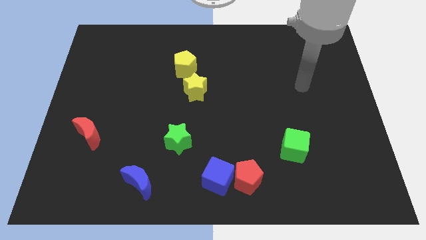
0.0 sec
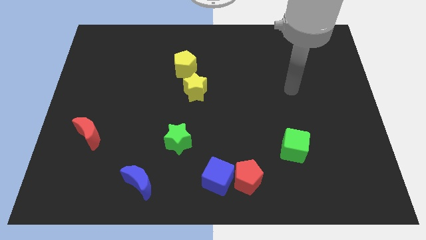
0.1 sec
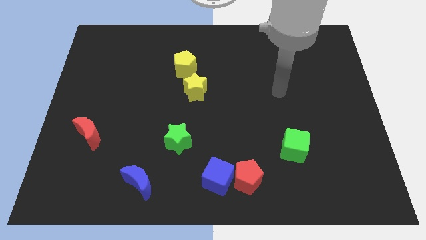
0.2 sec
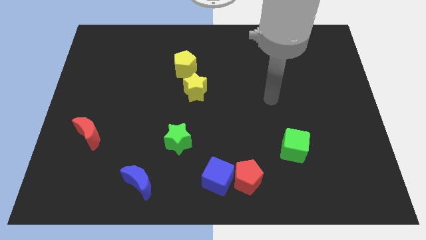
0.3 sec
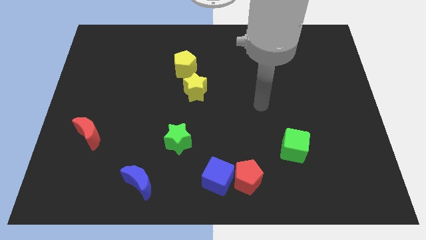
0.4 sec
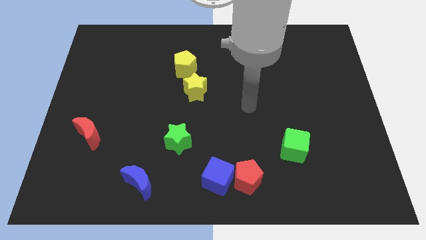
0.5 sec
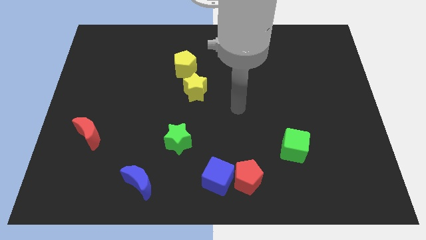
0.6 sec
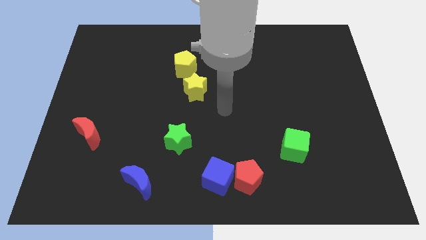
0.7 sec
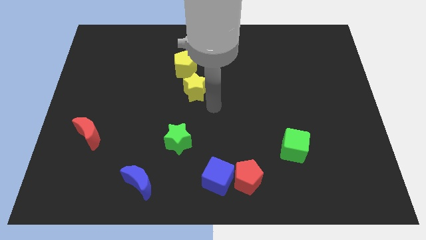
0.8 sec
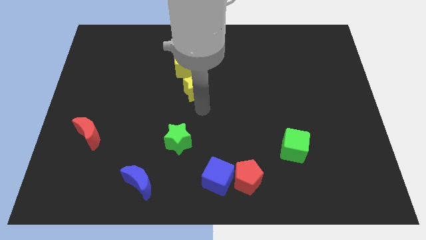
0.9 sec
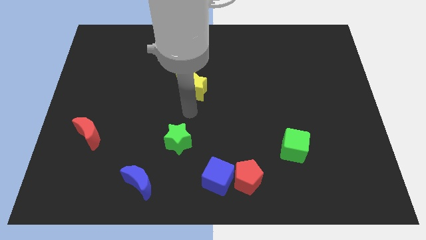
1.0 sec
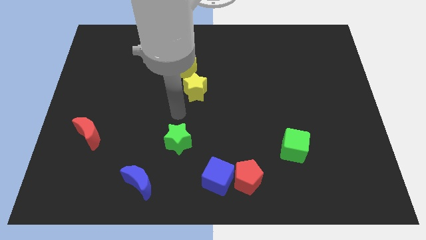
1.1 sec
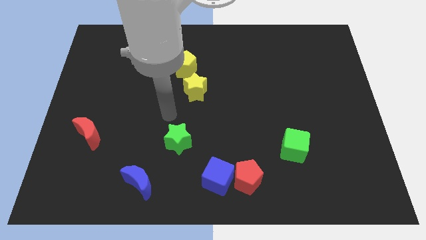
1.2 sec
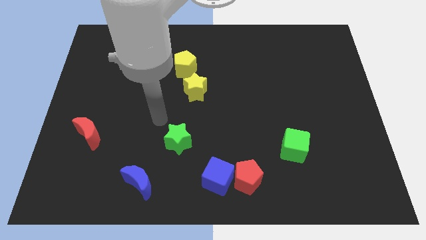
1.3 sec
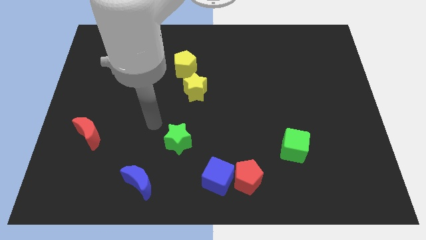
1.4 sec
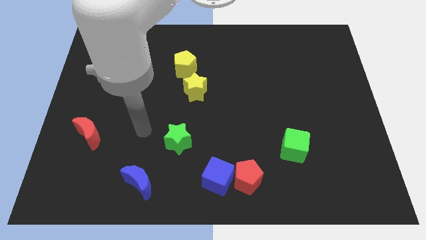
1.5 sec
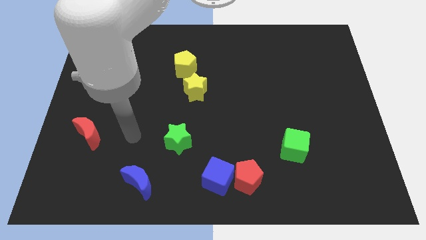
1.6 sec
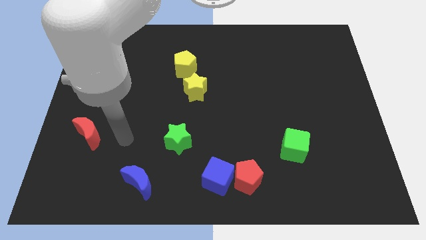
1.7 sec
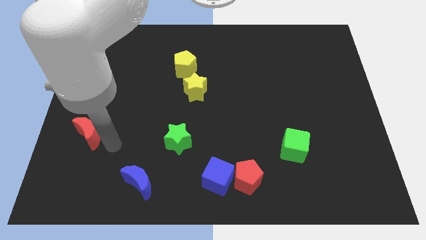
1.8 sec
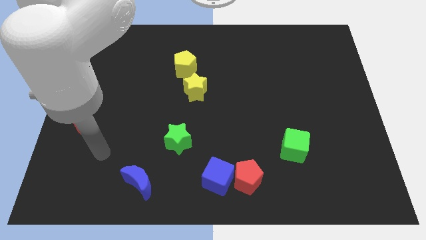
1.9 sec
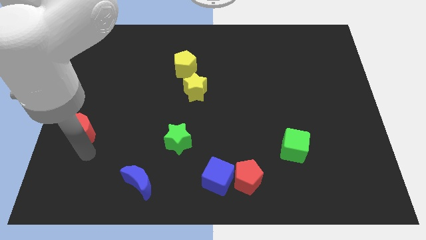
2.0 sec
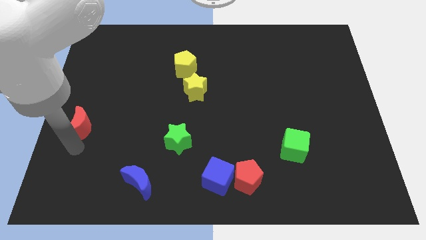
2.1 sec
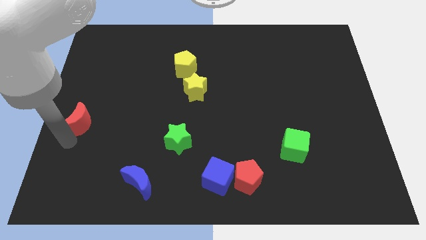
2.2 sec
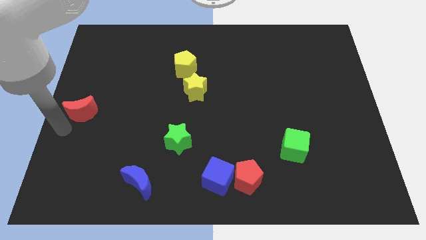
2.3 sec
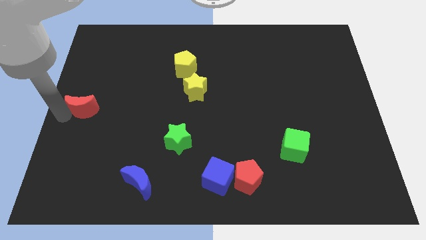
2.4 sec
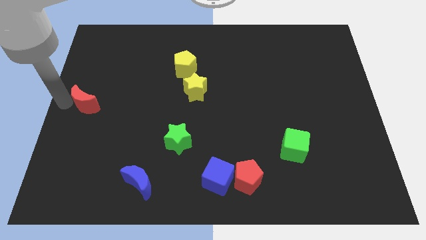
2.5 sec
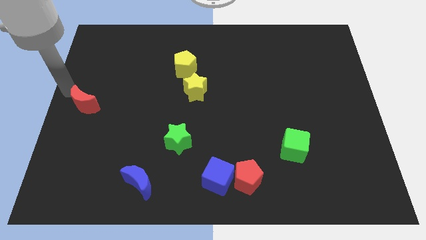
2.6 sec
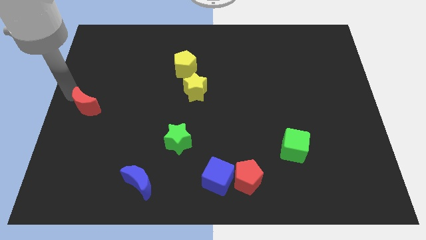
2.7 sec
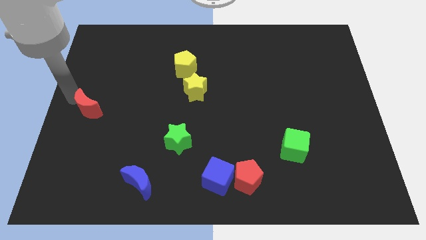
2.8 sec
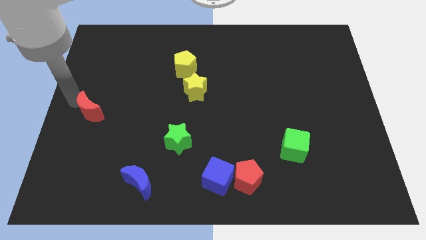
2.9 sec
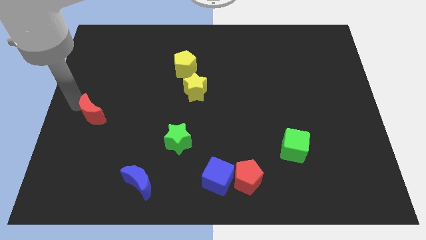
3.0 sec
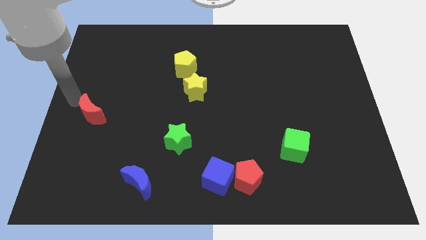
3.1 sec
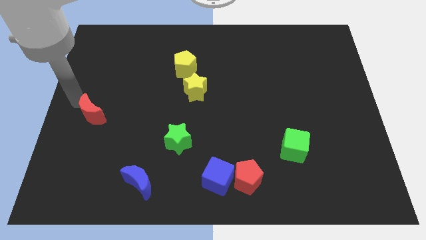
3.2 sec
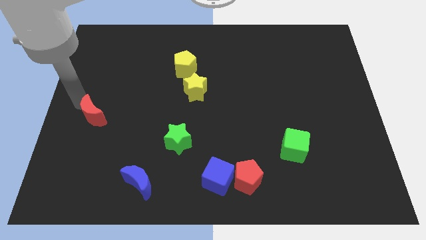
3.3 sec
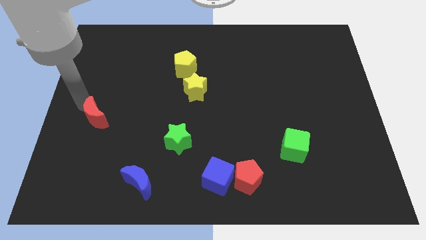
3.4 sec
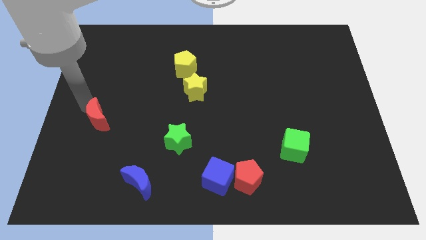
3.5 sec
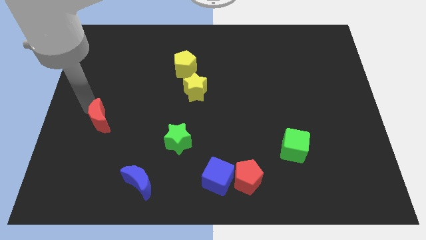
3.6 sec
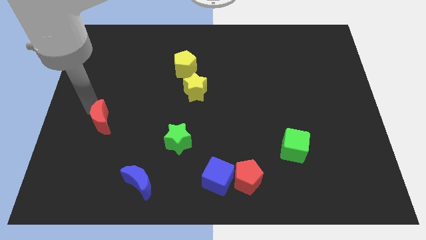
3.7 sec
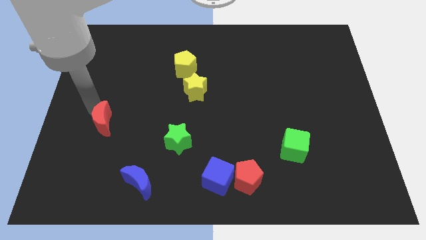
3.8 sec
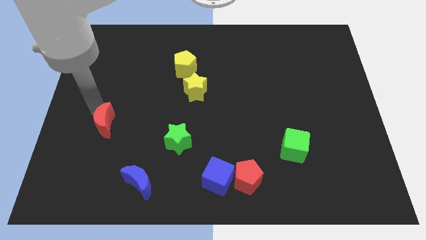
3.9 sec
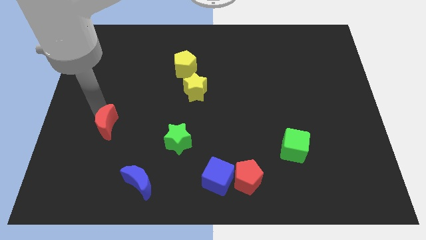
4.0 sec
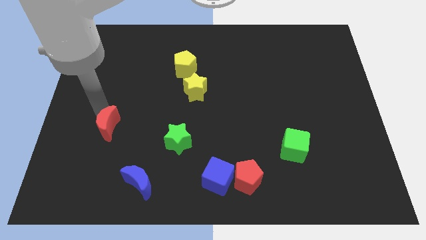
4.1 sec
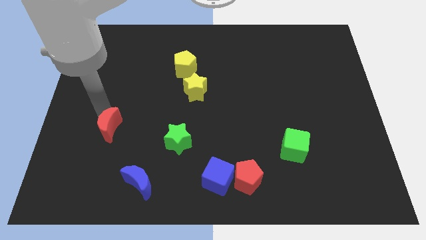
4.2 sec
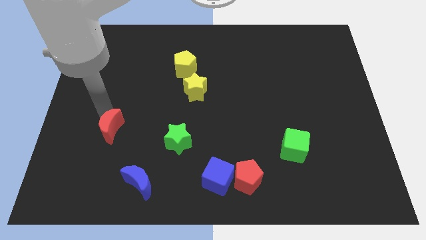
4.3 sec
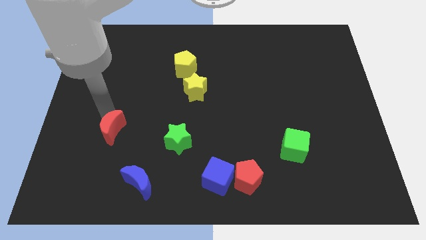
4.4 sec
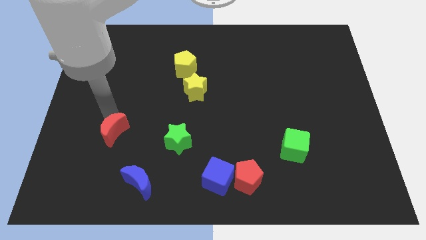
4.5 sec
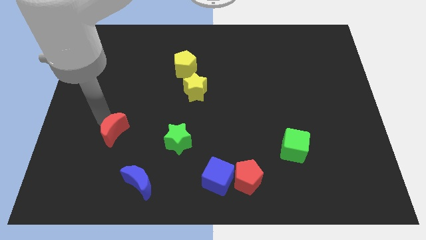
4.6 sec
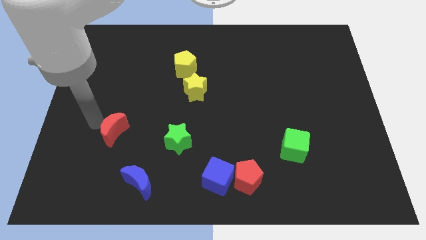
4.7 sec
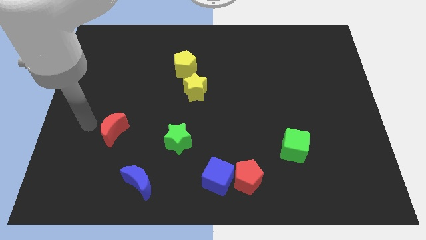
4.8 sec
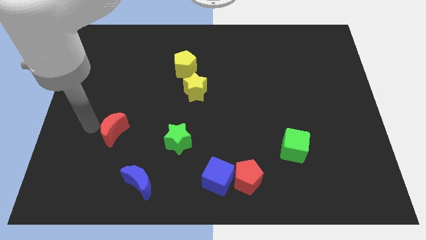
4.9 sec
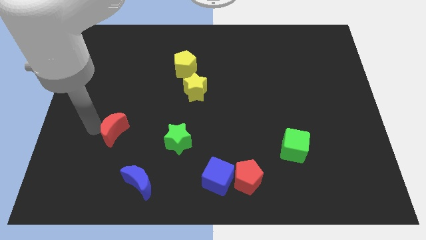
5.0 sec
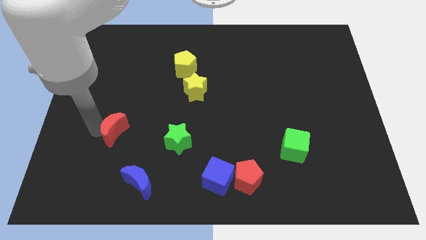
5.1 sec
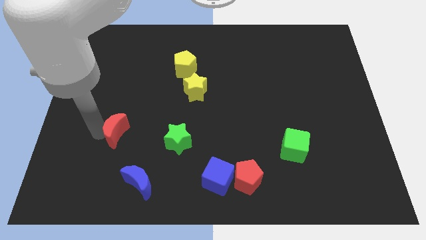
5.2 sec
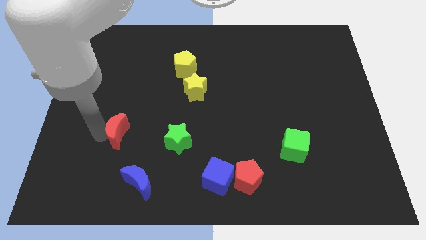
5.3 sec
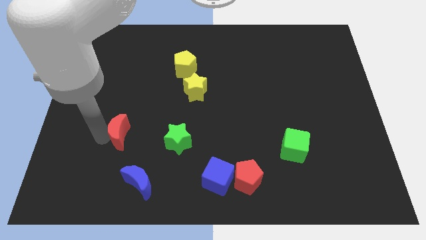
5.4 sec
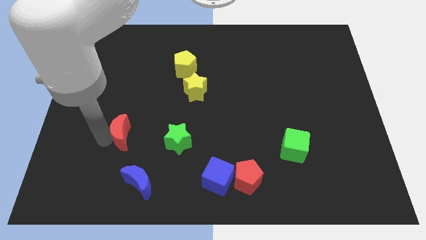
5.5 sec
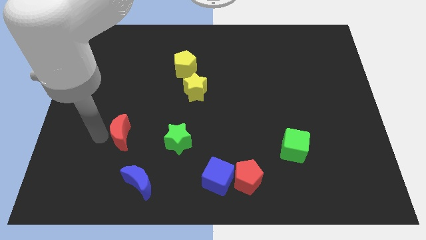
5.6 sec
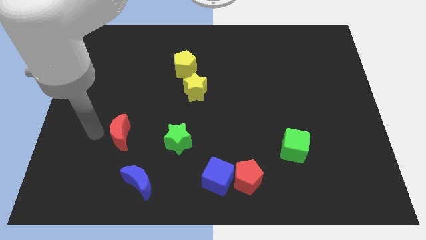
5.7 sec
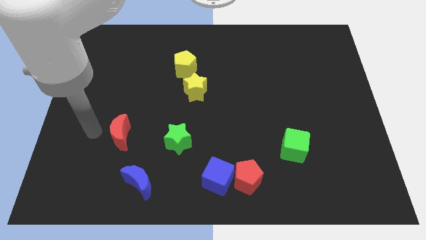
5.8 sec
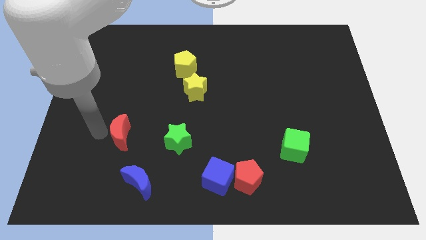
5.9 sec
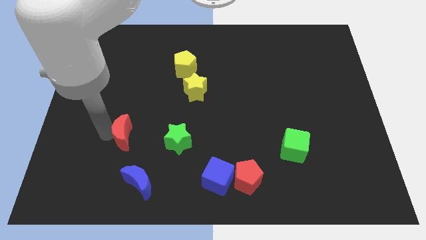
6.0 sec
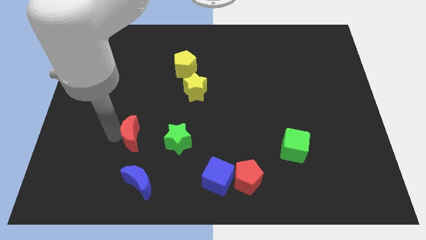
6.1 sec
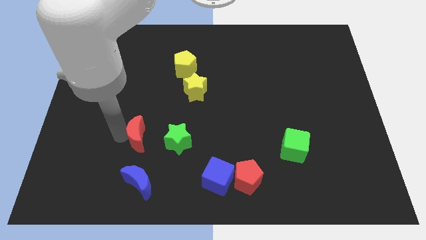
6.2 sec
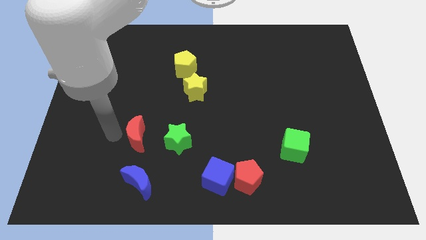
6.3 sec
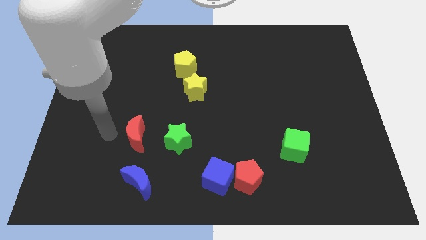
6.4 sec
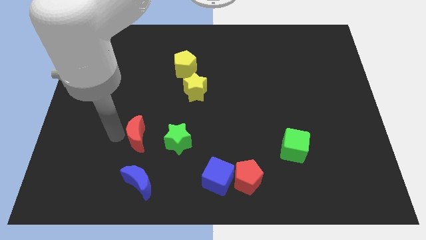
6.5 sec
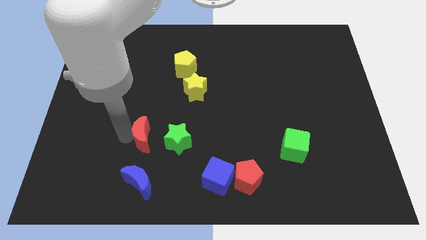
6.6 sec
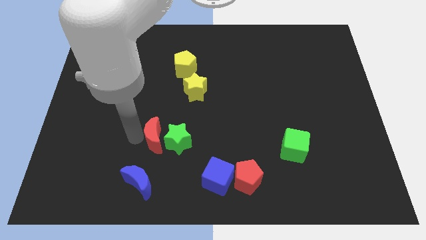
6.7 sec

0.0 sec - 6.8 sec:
slide the red moon close to the green star

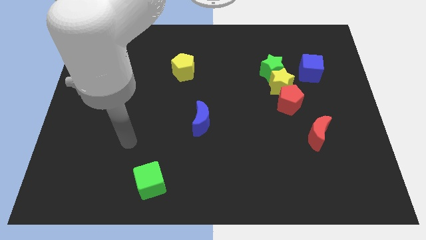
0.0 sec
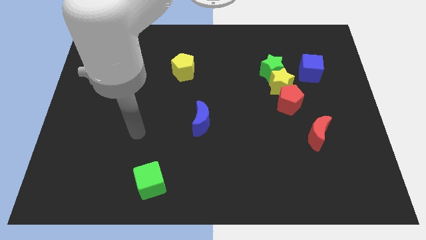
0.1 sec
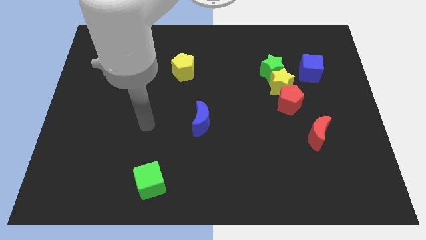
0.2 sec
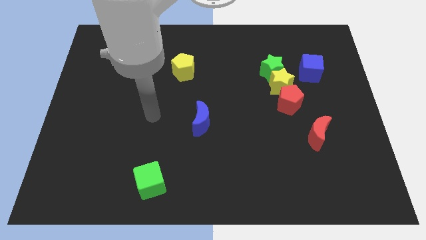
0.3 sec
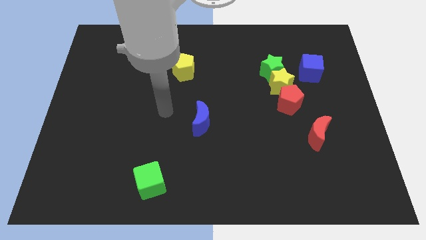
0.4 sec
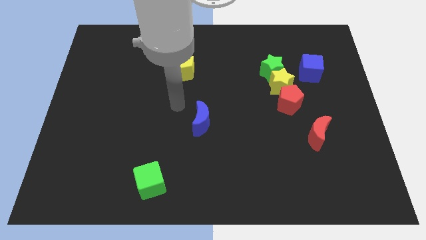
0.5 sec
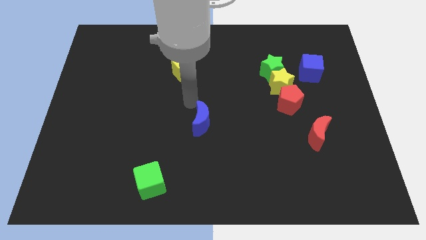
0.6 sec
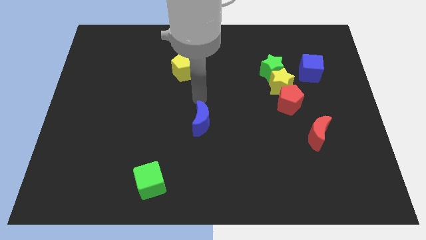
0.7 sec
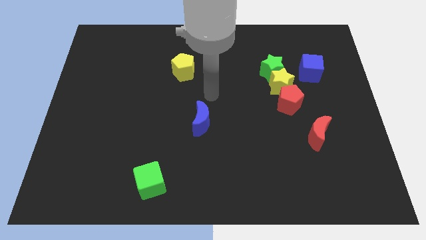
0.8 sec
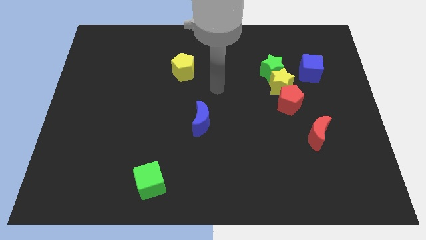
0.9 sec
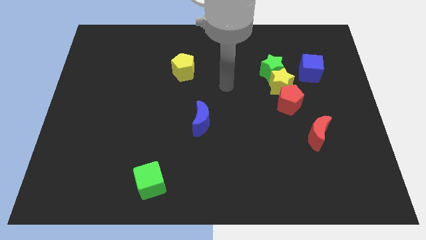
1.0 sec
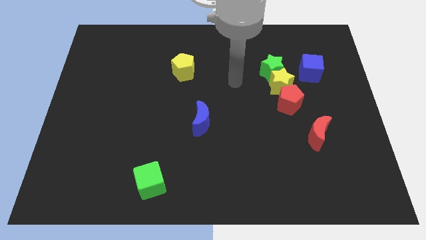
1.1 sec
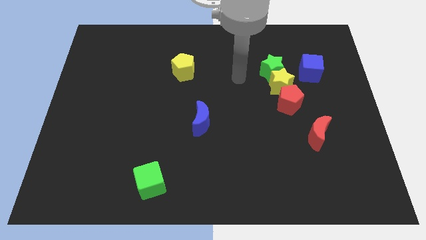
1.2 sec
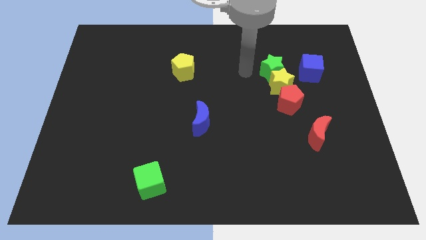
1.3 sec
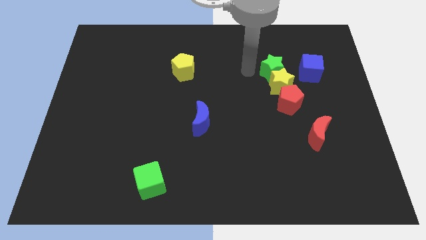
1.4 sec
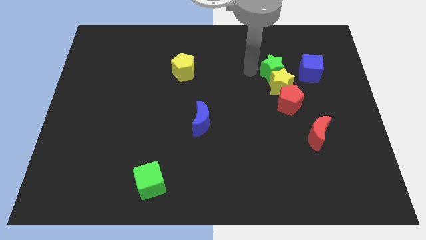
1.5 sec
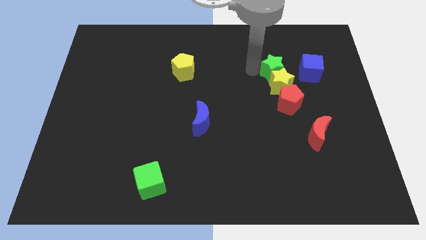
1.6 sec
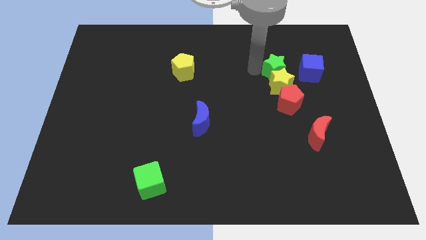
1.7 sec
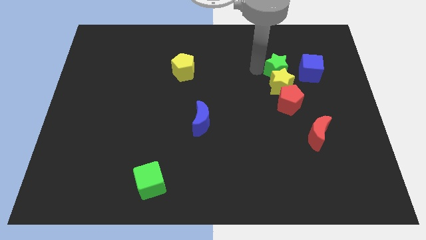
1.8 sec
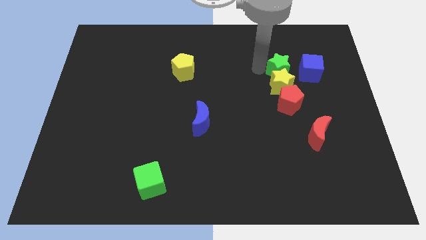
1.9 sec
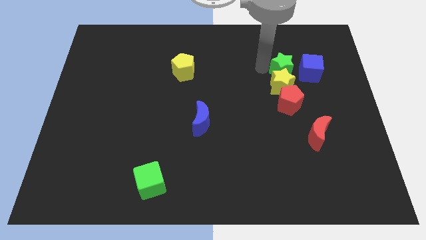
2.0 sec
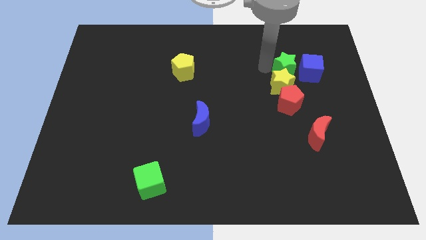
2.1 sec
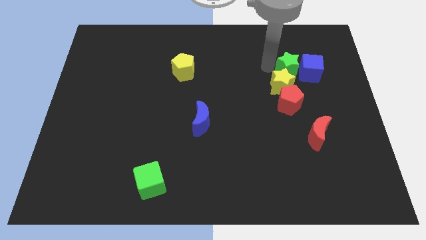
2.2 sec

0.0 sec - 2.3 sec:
put the green star towards the blue cube
